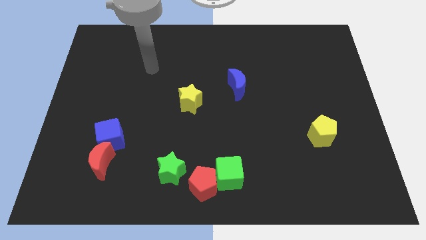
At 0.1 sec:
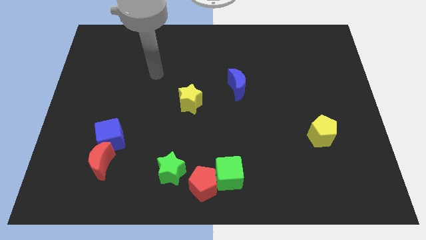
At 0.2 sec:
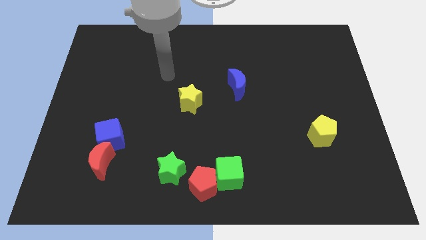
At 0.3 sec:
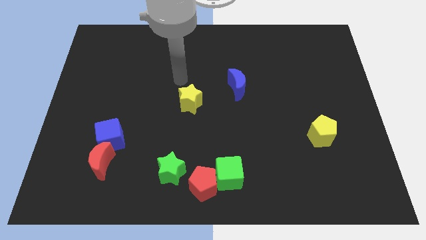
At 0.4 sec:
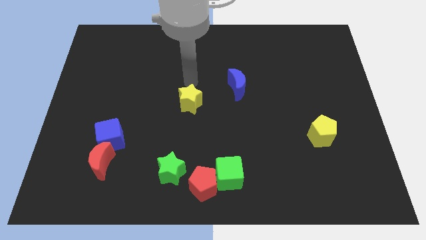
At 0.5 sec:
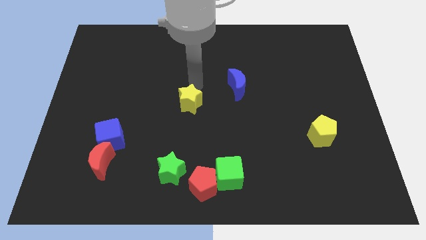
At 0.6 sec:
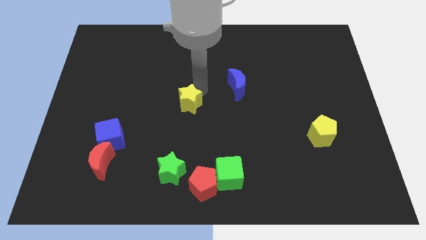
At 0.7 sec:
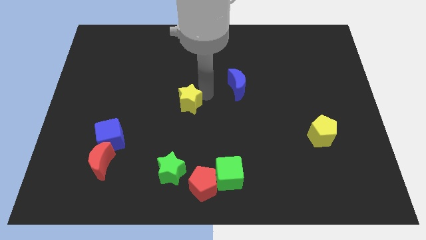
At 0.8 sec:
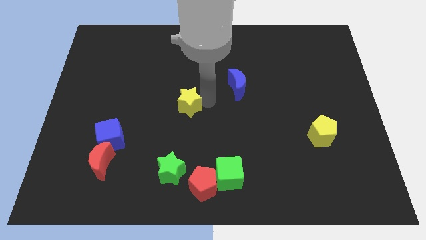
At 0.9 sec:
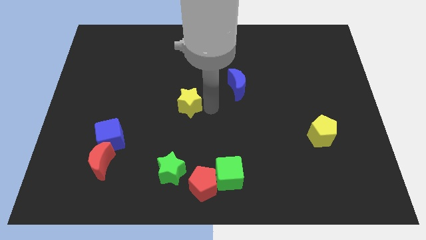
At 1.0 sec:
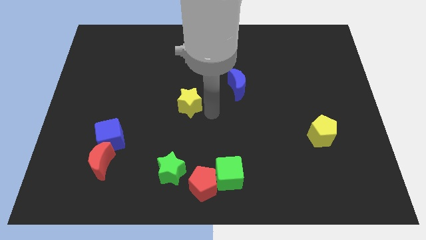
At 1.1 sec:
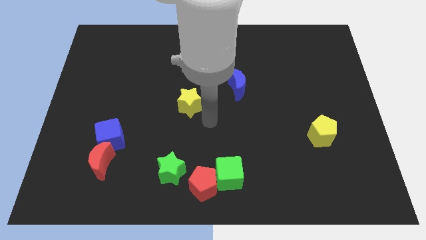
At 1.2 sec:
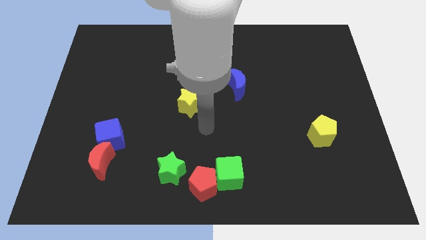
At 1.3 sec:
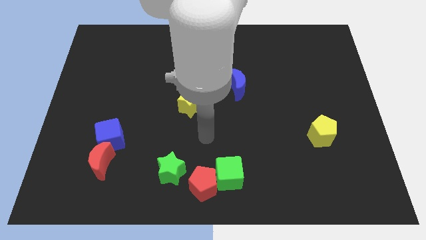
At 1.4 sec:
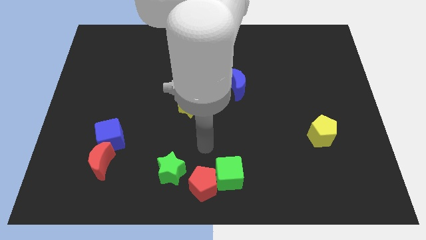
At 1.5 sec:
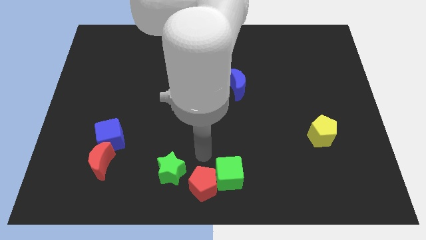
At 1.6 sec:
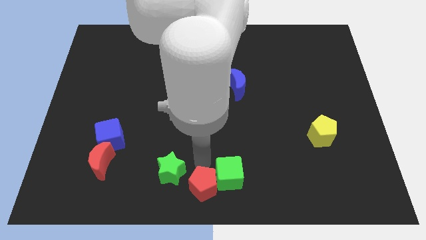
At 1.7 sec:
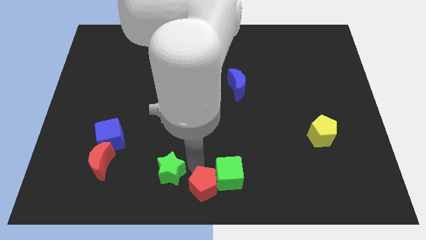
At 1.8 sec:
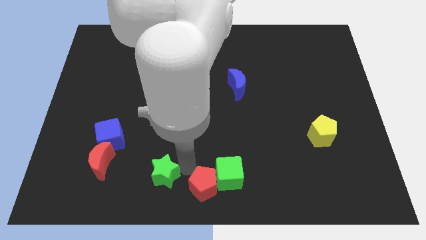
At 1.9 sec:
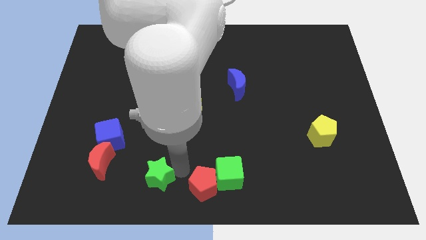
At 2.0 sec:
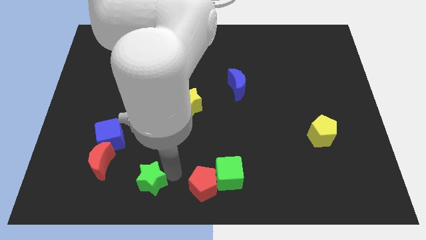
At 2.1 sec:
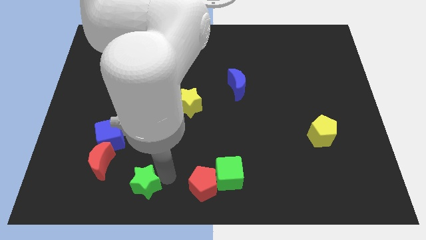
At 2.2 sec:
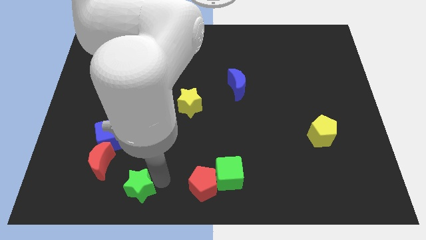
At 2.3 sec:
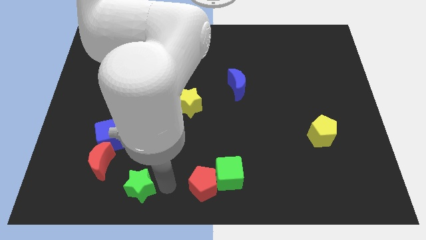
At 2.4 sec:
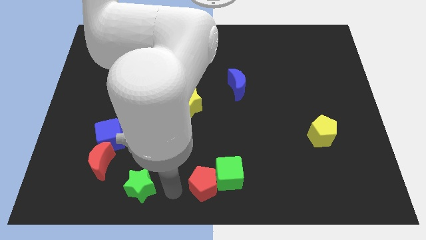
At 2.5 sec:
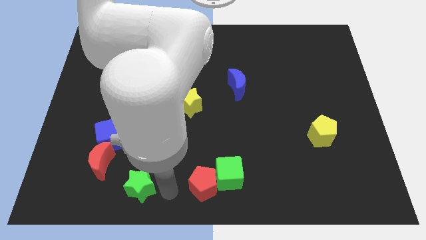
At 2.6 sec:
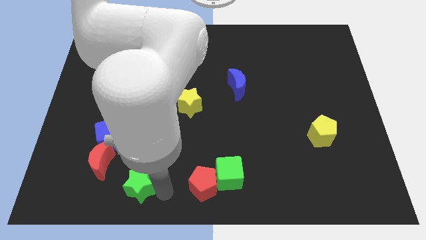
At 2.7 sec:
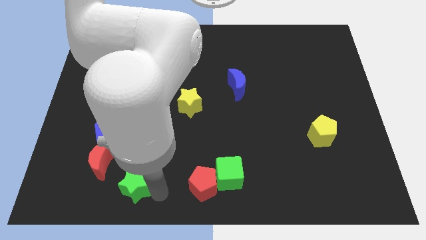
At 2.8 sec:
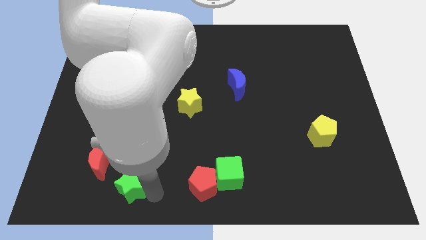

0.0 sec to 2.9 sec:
push the green star left slightly

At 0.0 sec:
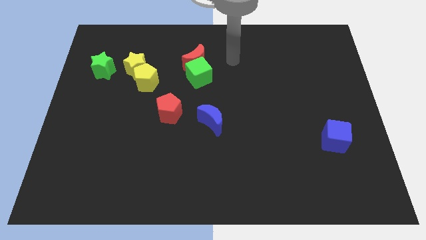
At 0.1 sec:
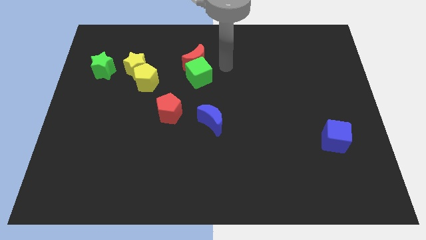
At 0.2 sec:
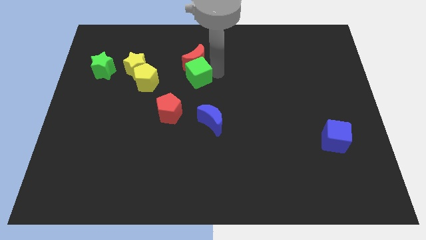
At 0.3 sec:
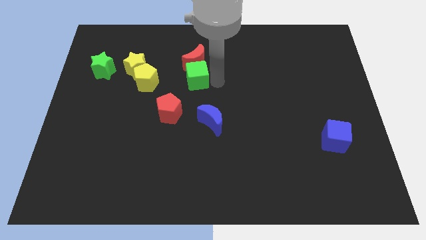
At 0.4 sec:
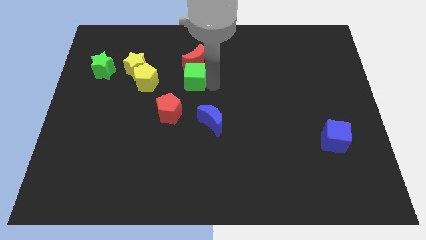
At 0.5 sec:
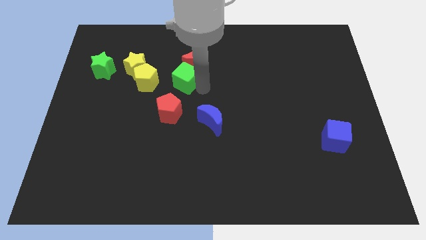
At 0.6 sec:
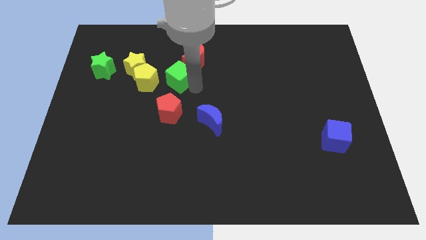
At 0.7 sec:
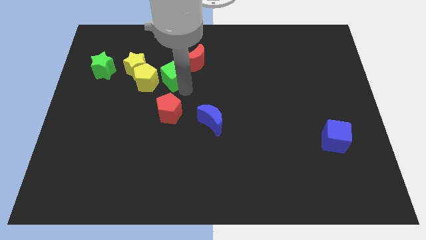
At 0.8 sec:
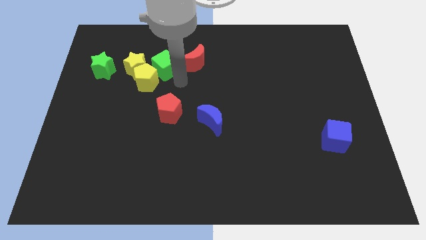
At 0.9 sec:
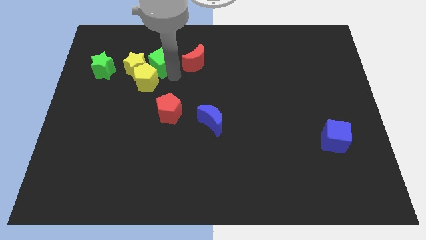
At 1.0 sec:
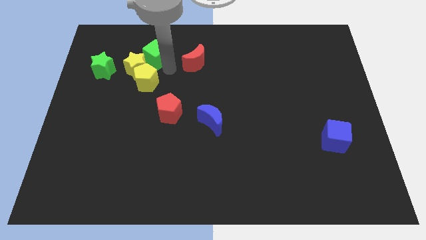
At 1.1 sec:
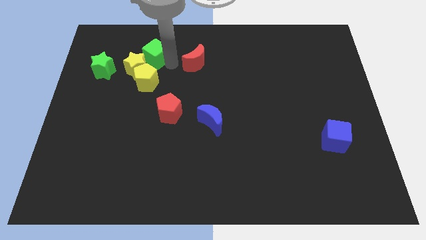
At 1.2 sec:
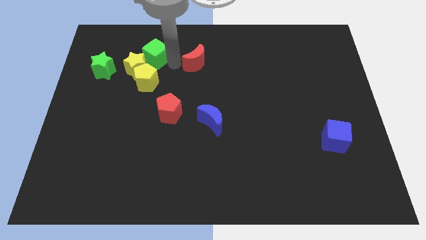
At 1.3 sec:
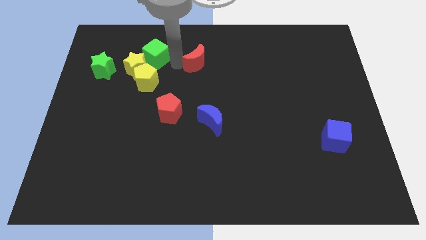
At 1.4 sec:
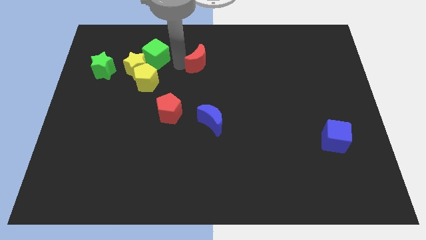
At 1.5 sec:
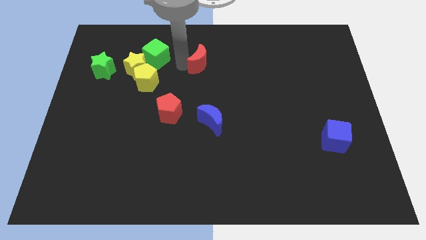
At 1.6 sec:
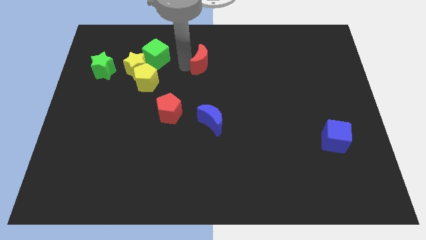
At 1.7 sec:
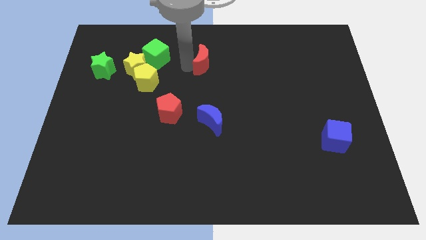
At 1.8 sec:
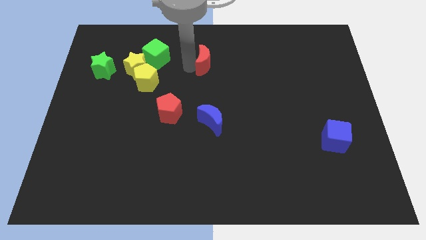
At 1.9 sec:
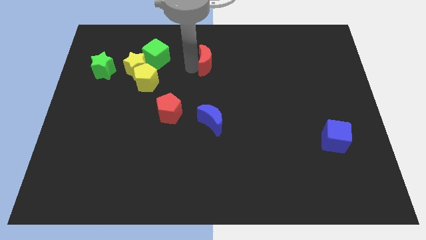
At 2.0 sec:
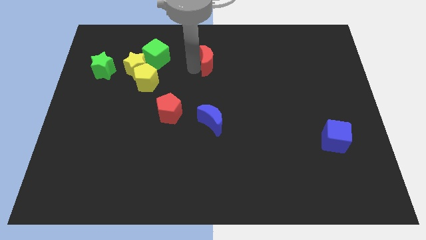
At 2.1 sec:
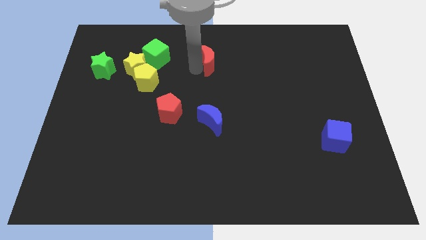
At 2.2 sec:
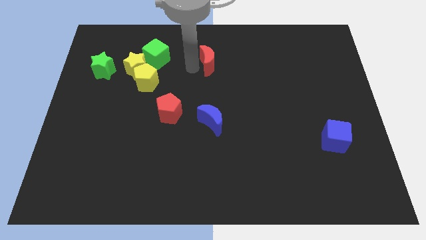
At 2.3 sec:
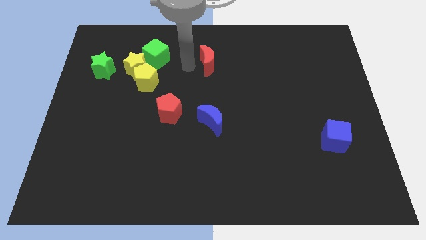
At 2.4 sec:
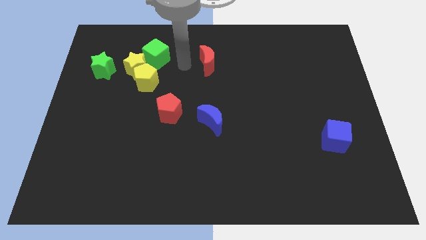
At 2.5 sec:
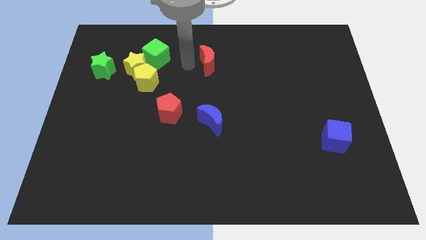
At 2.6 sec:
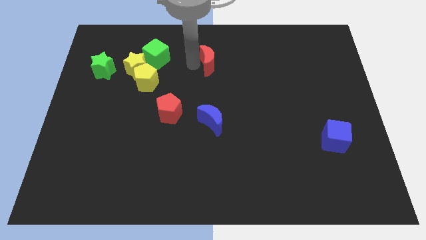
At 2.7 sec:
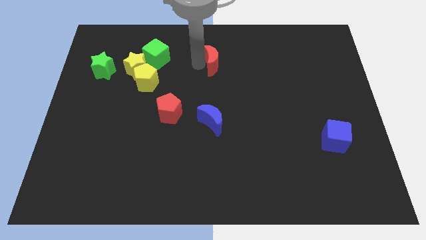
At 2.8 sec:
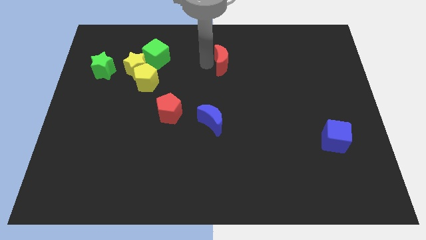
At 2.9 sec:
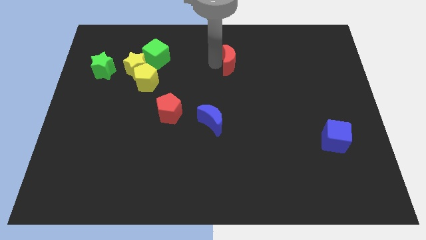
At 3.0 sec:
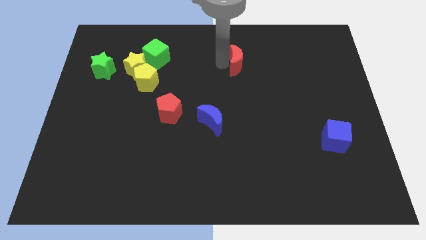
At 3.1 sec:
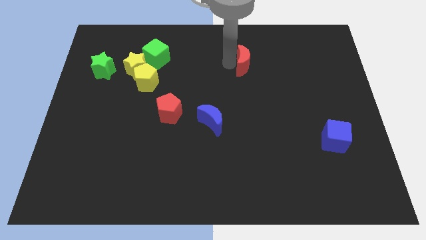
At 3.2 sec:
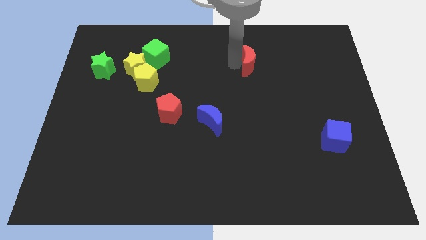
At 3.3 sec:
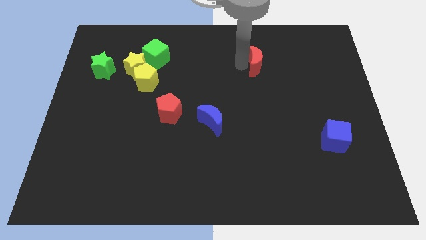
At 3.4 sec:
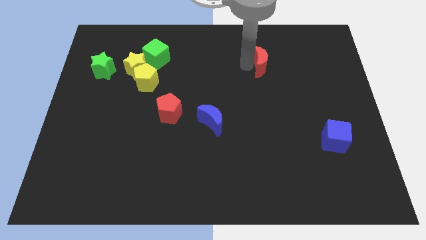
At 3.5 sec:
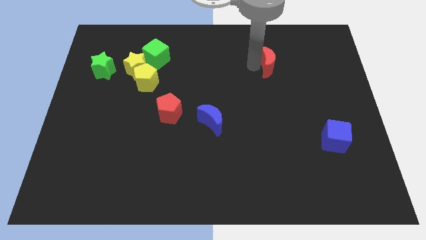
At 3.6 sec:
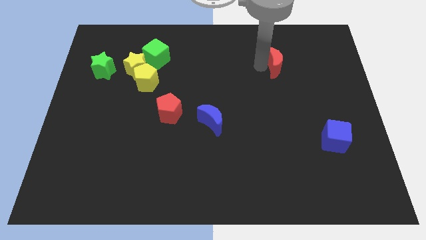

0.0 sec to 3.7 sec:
move the red moon right

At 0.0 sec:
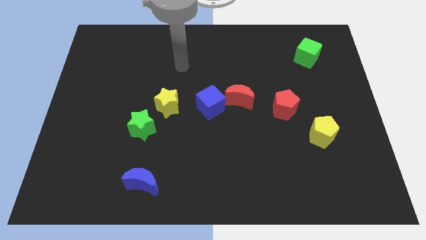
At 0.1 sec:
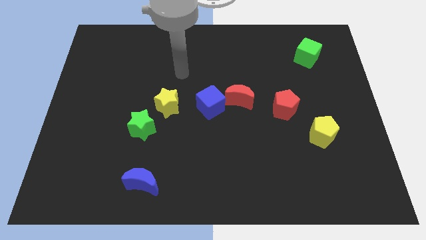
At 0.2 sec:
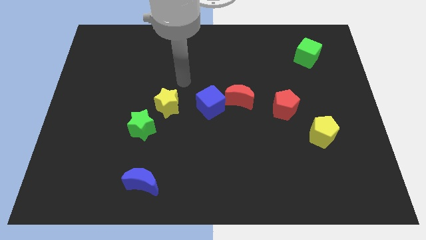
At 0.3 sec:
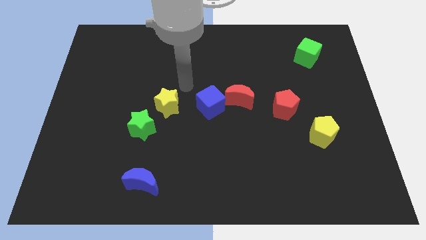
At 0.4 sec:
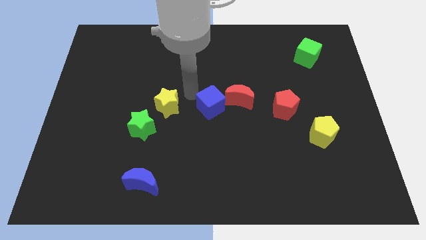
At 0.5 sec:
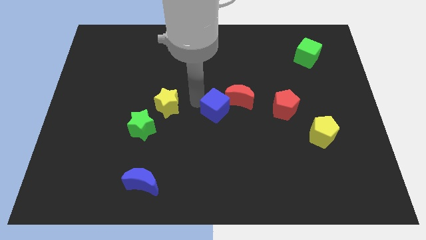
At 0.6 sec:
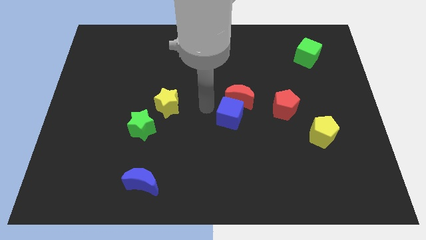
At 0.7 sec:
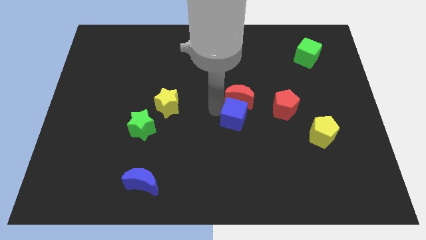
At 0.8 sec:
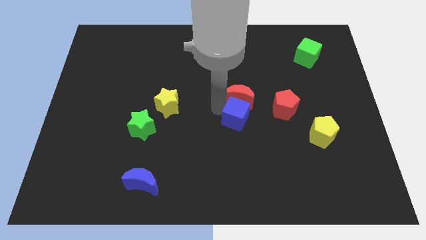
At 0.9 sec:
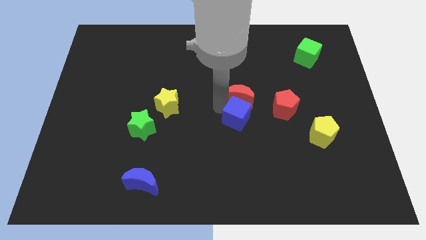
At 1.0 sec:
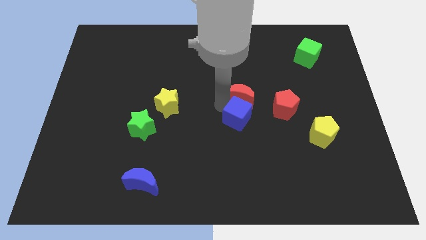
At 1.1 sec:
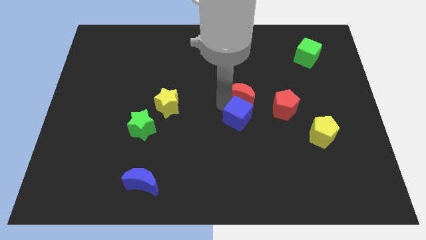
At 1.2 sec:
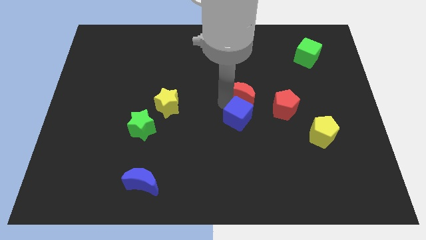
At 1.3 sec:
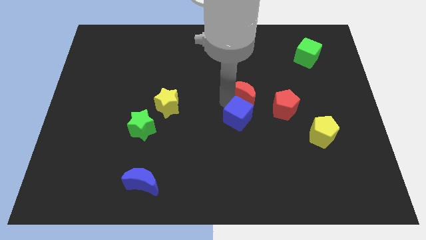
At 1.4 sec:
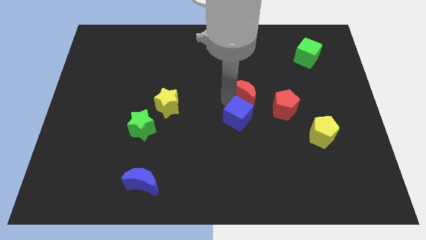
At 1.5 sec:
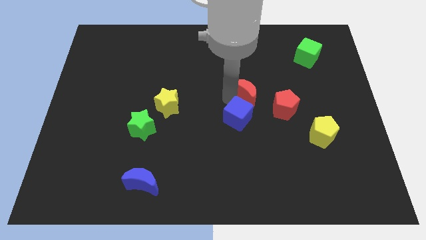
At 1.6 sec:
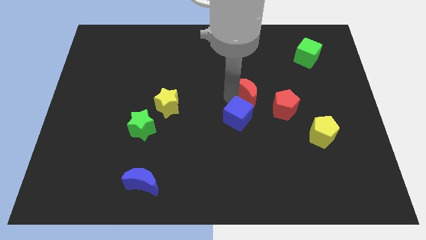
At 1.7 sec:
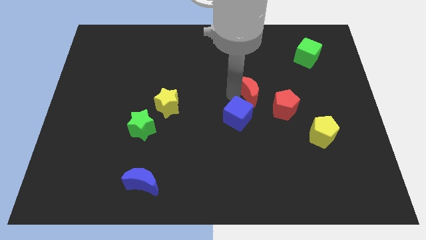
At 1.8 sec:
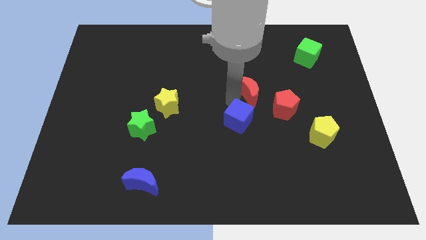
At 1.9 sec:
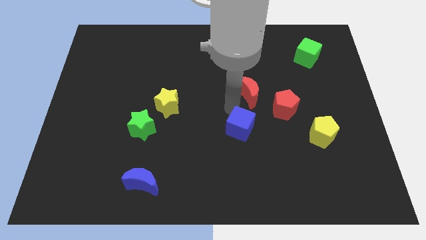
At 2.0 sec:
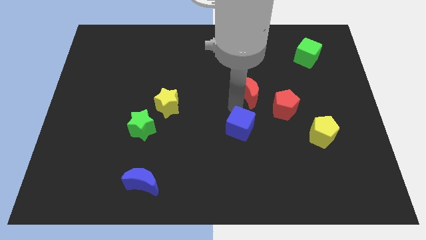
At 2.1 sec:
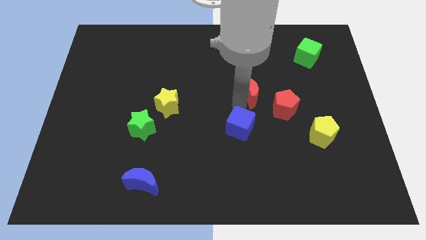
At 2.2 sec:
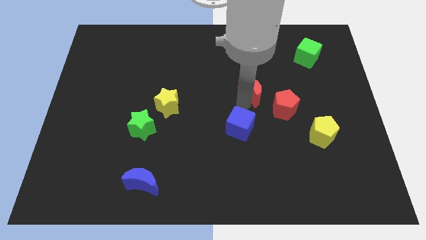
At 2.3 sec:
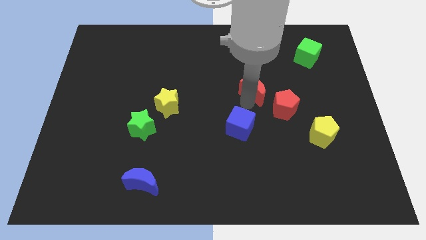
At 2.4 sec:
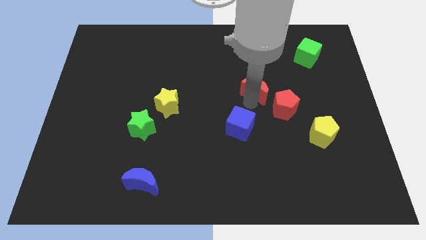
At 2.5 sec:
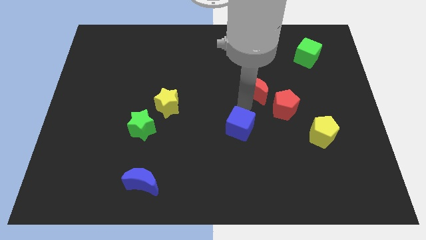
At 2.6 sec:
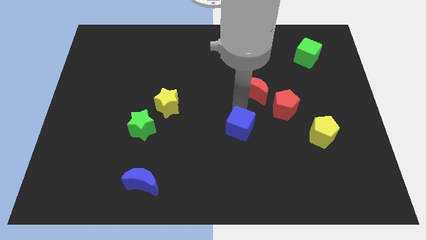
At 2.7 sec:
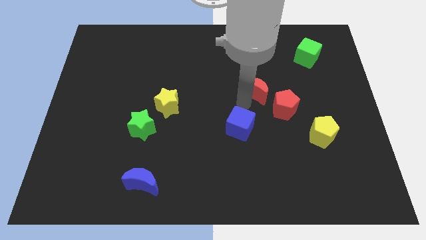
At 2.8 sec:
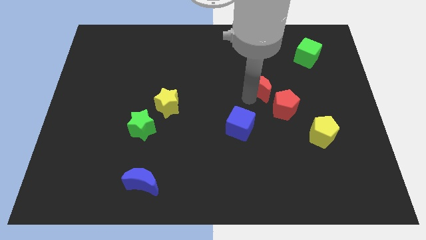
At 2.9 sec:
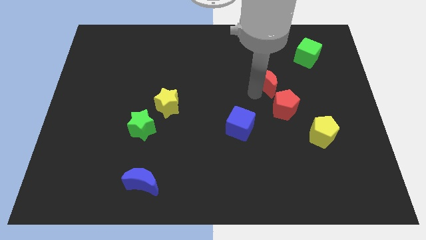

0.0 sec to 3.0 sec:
push the red moon a little diagonally upwards and to the right
